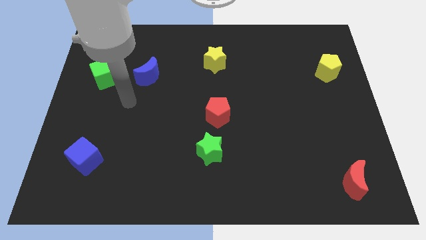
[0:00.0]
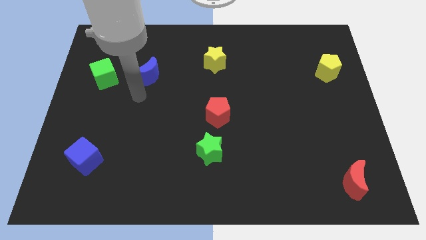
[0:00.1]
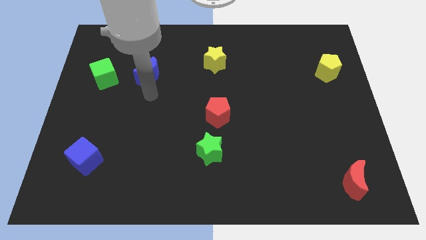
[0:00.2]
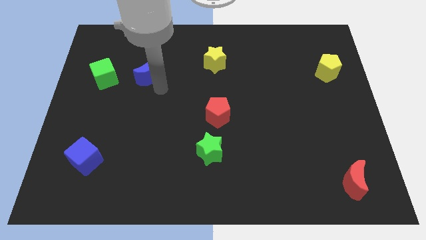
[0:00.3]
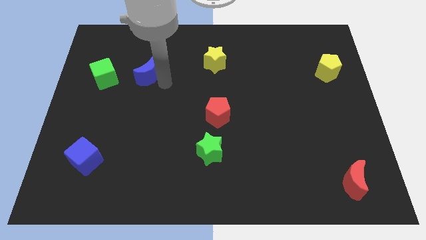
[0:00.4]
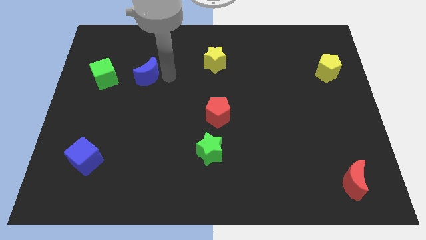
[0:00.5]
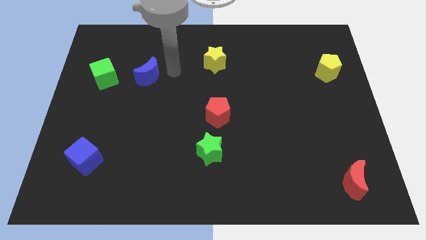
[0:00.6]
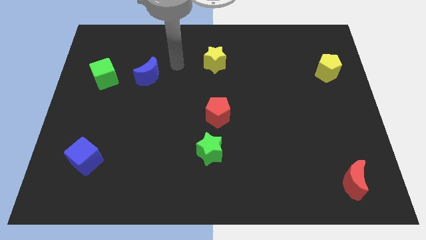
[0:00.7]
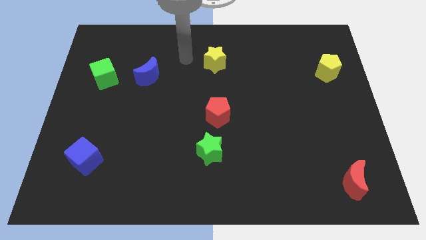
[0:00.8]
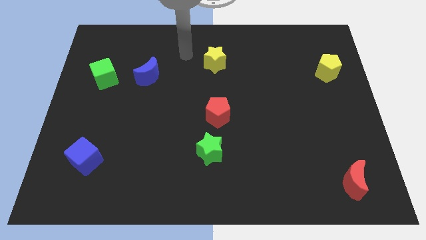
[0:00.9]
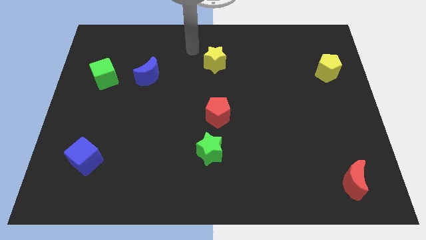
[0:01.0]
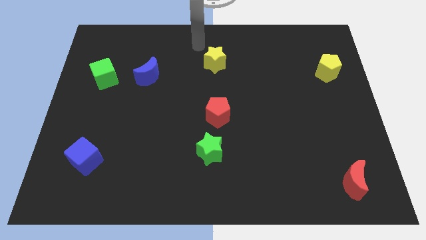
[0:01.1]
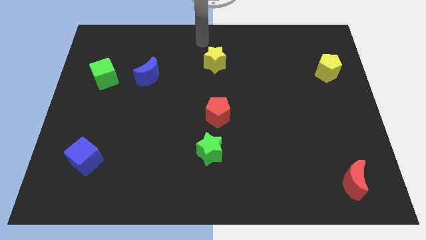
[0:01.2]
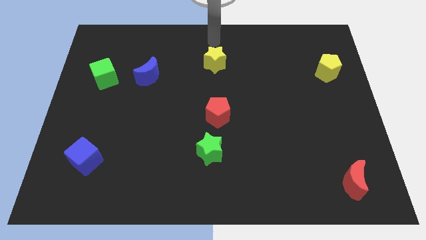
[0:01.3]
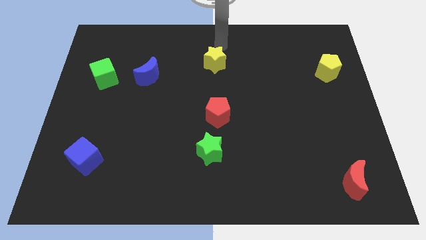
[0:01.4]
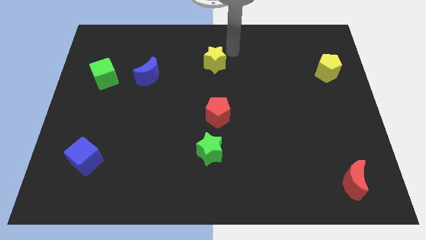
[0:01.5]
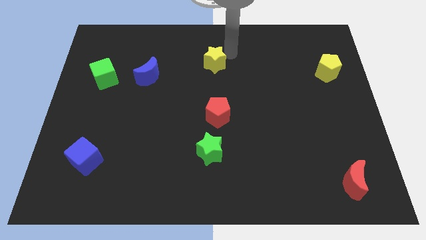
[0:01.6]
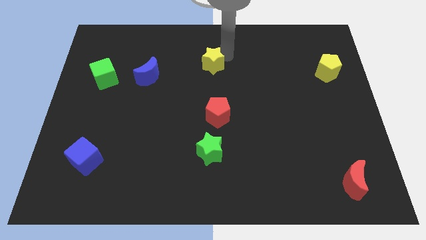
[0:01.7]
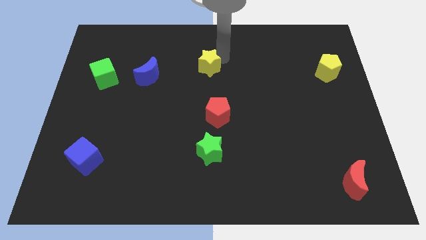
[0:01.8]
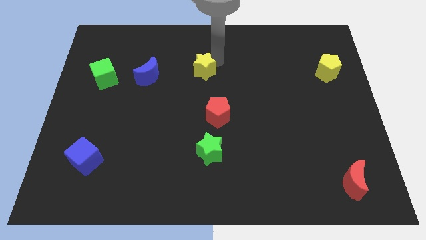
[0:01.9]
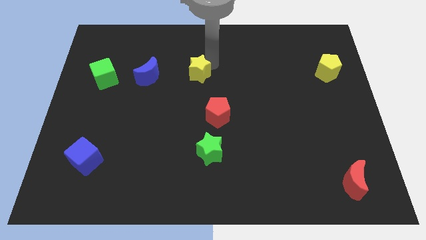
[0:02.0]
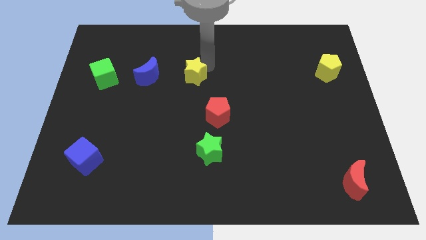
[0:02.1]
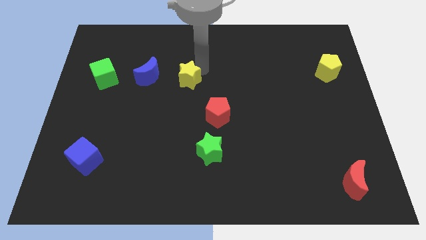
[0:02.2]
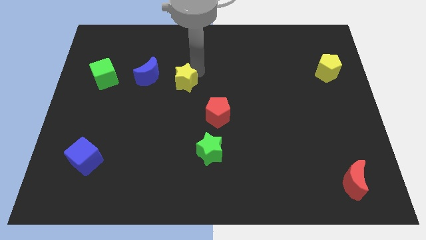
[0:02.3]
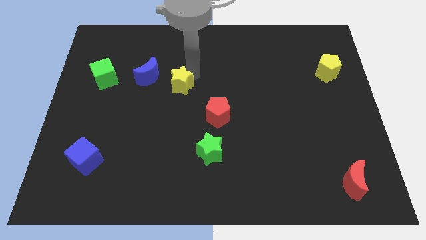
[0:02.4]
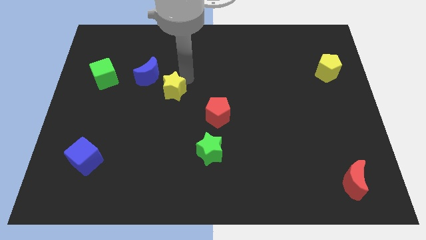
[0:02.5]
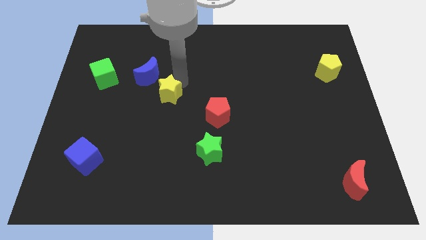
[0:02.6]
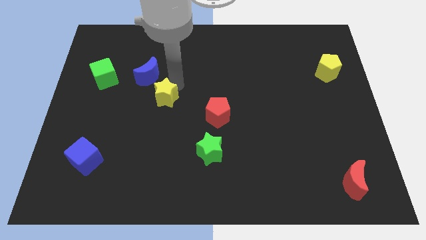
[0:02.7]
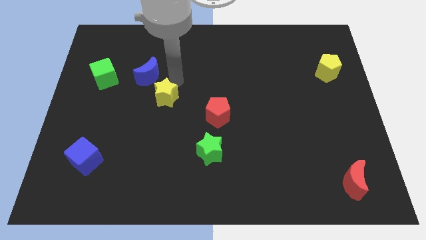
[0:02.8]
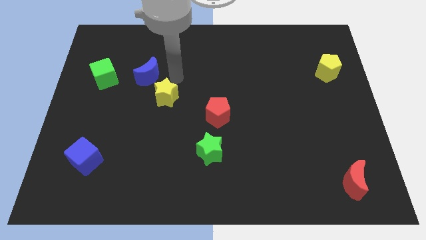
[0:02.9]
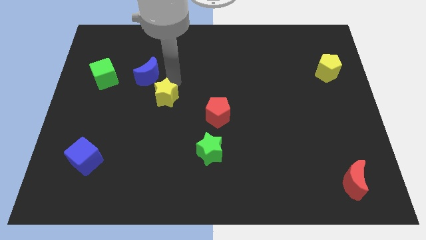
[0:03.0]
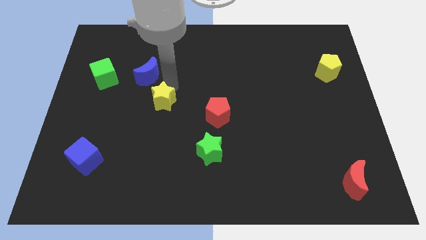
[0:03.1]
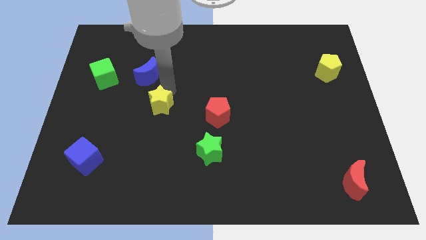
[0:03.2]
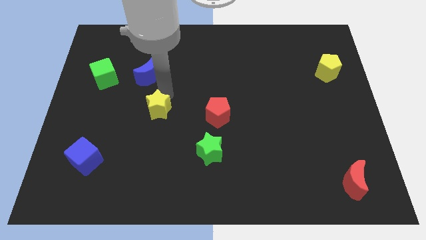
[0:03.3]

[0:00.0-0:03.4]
push the yellow star down and then to the left

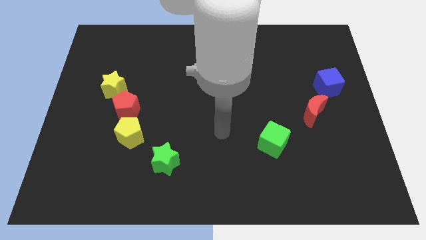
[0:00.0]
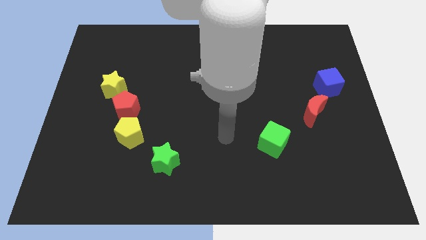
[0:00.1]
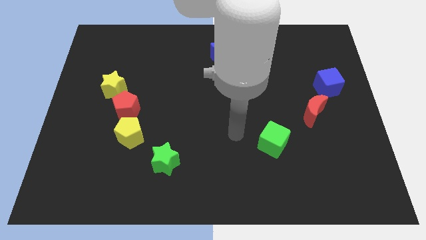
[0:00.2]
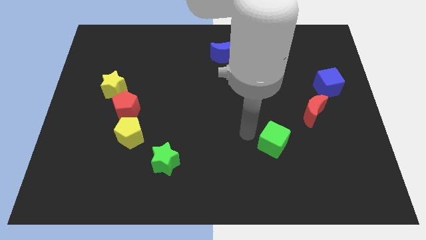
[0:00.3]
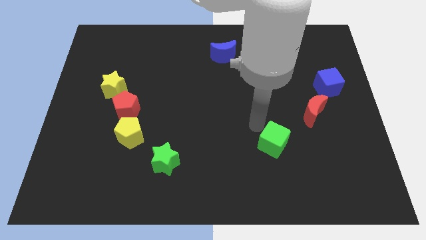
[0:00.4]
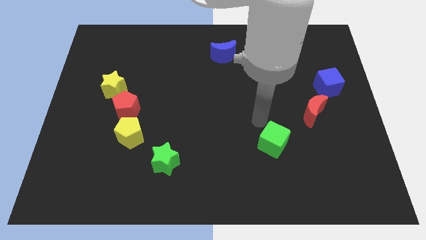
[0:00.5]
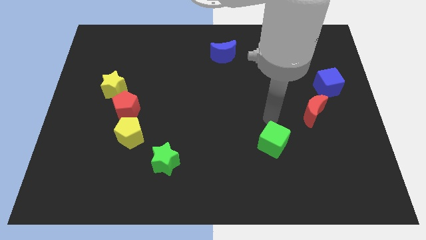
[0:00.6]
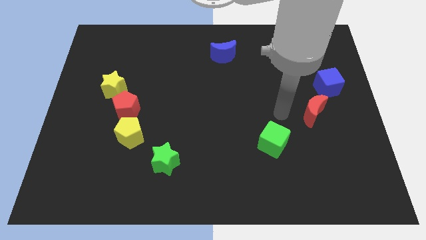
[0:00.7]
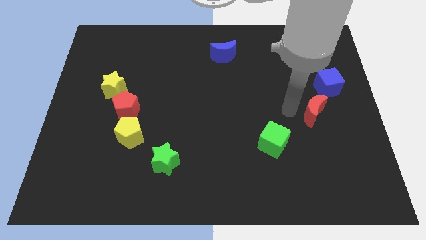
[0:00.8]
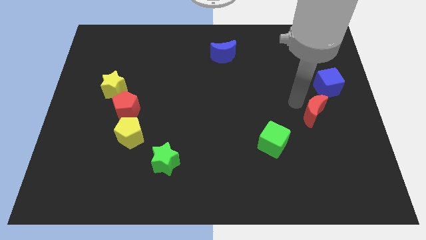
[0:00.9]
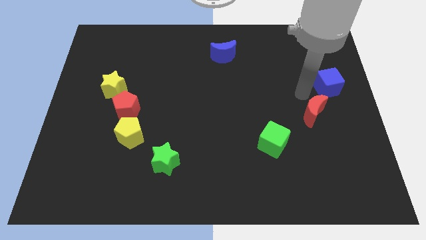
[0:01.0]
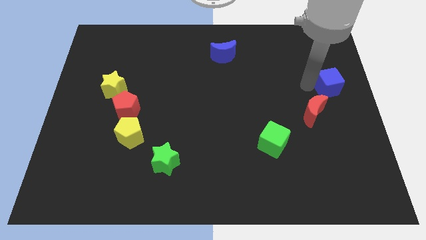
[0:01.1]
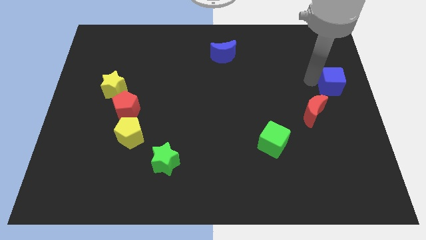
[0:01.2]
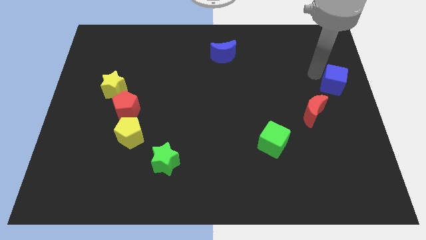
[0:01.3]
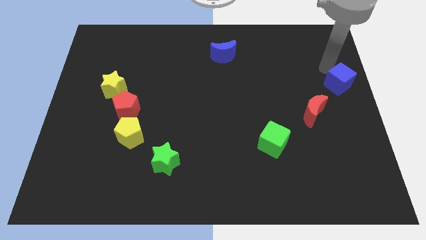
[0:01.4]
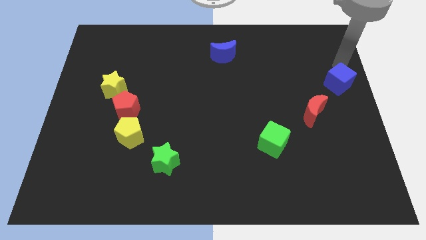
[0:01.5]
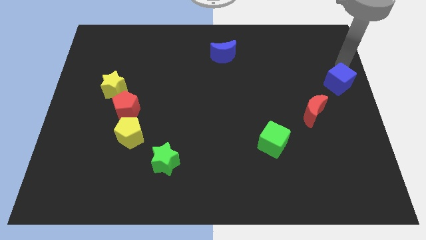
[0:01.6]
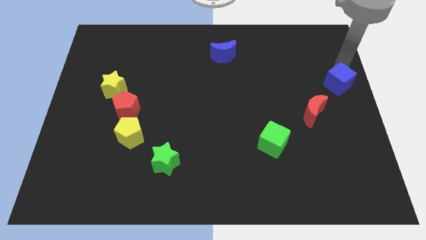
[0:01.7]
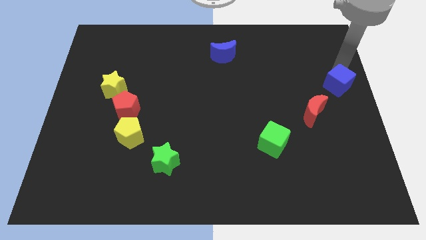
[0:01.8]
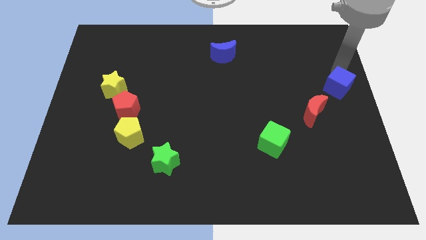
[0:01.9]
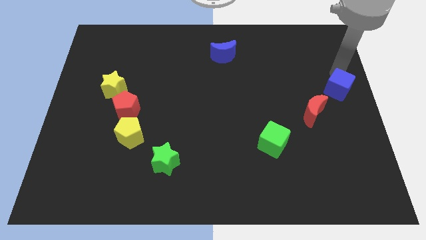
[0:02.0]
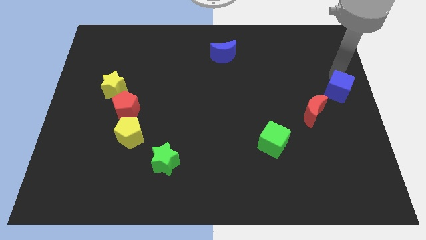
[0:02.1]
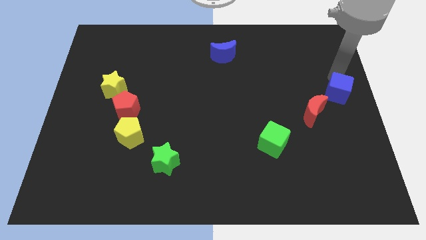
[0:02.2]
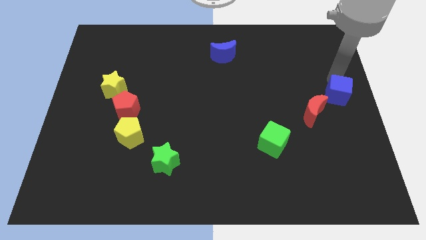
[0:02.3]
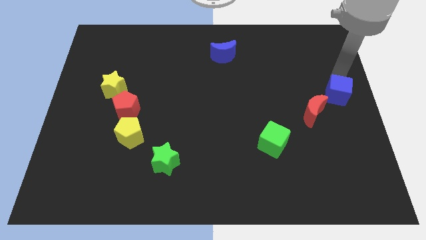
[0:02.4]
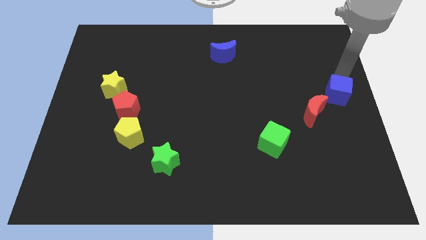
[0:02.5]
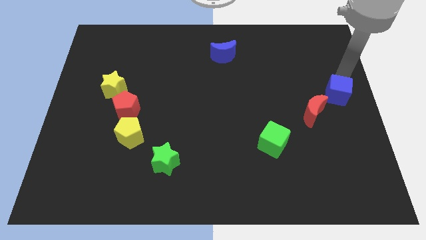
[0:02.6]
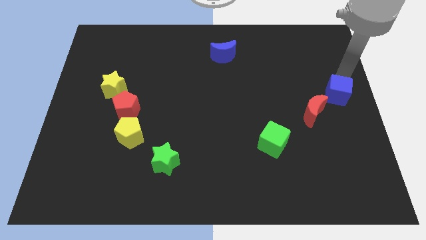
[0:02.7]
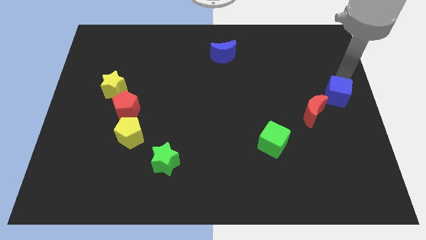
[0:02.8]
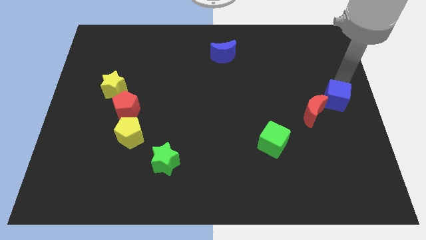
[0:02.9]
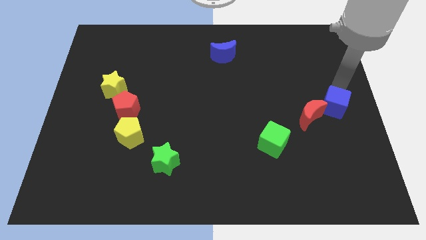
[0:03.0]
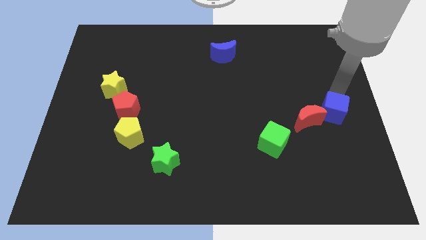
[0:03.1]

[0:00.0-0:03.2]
slide the blue cube downwards a bit

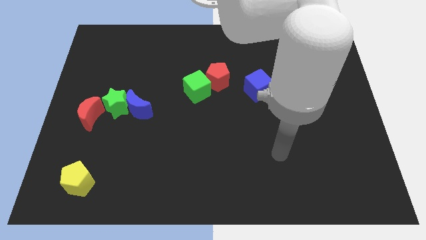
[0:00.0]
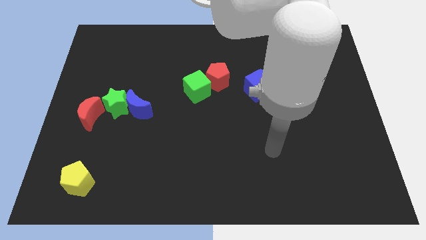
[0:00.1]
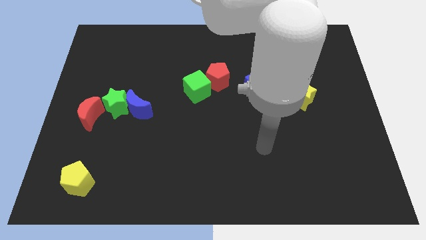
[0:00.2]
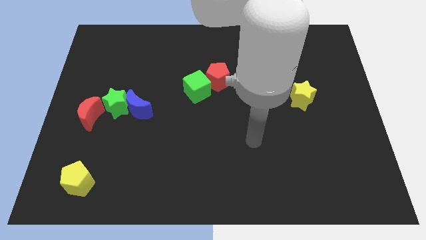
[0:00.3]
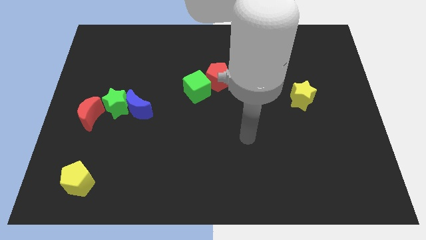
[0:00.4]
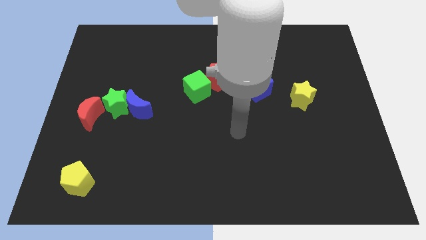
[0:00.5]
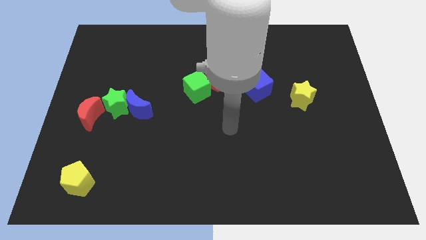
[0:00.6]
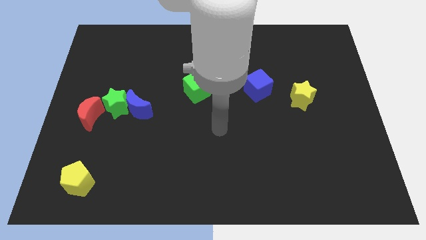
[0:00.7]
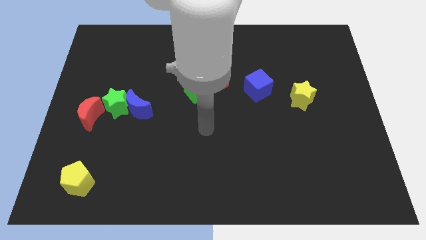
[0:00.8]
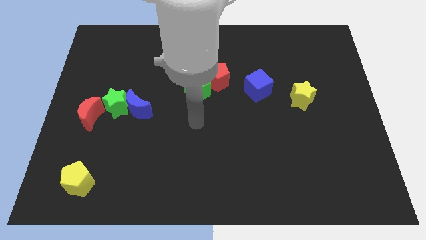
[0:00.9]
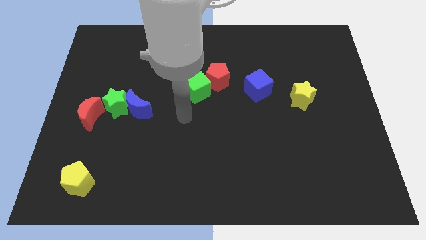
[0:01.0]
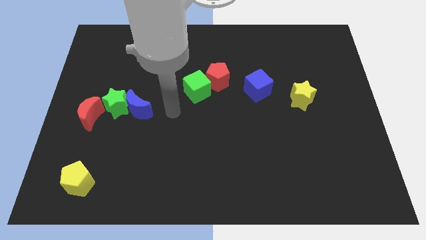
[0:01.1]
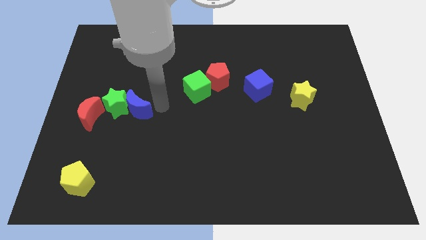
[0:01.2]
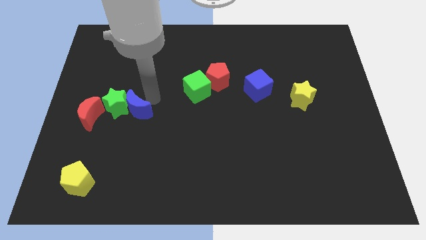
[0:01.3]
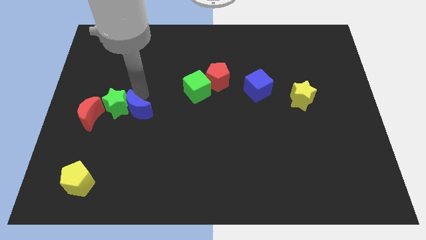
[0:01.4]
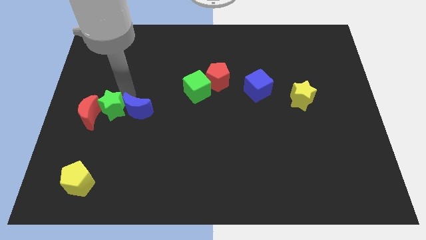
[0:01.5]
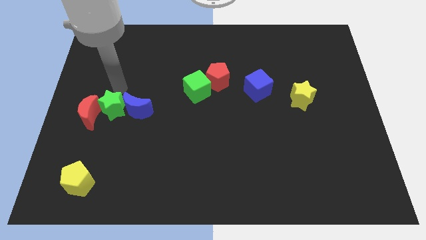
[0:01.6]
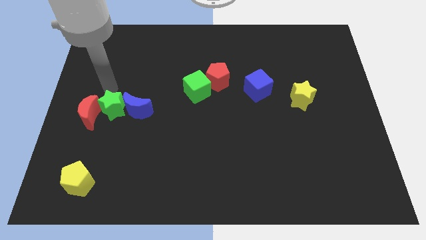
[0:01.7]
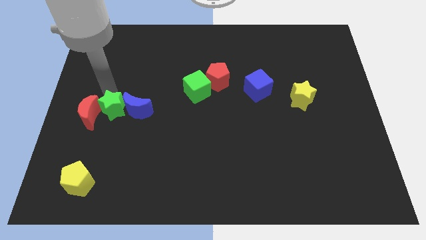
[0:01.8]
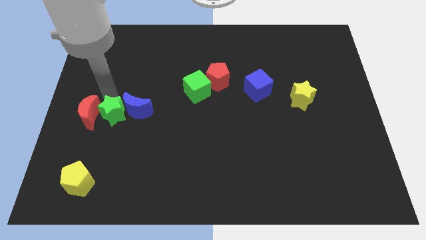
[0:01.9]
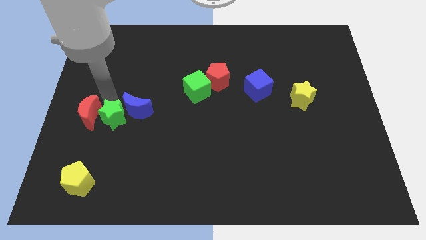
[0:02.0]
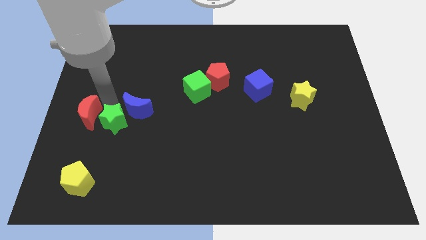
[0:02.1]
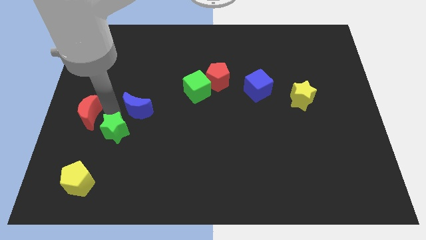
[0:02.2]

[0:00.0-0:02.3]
slightly move the green star downwards
